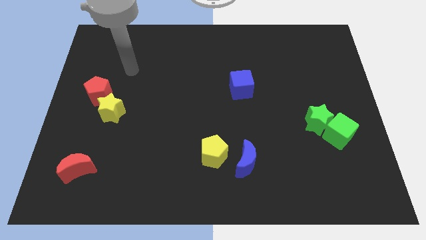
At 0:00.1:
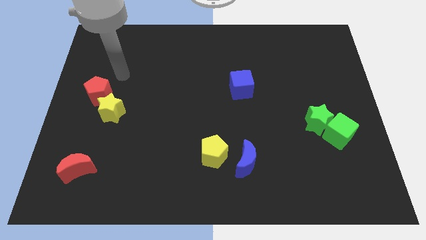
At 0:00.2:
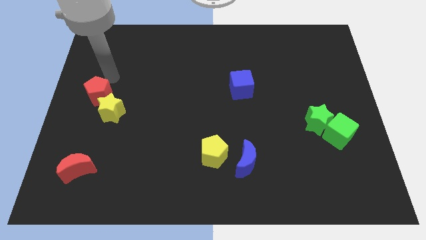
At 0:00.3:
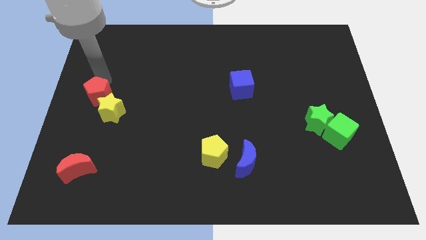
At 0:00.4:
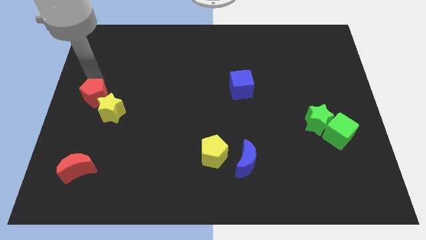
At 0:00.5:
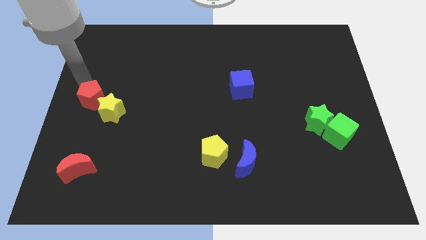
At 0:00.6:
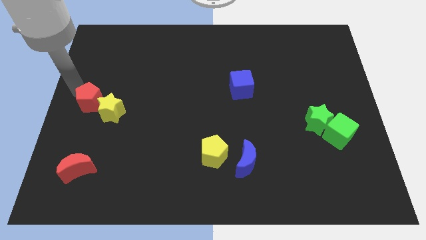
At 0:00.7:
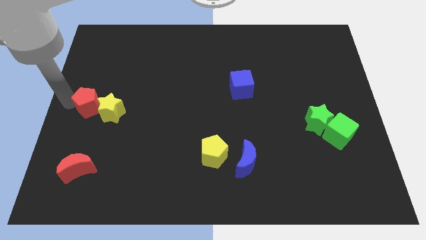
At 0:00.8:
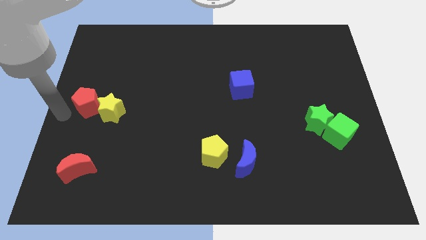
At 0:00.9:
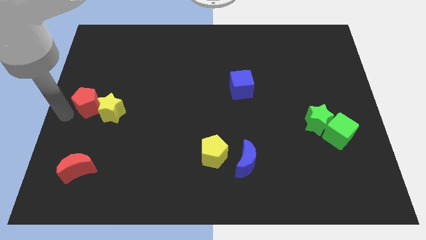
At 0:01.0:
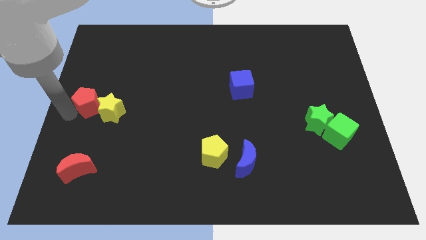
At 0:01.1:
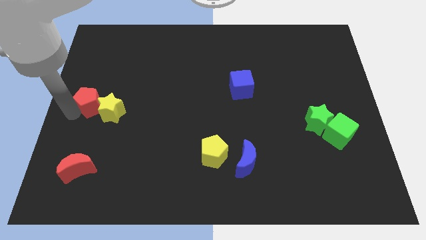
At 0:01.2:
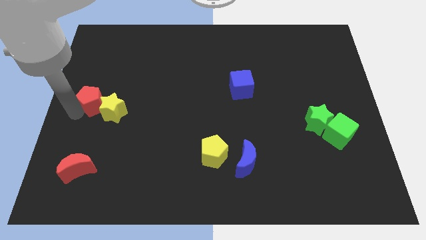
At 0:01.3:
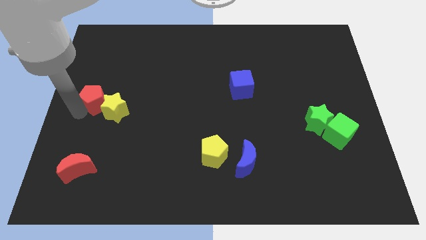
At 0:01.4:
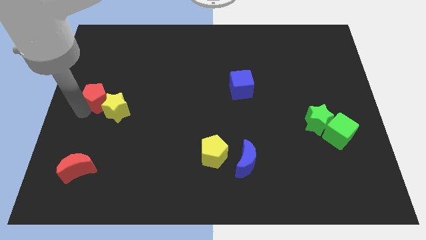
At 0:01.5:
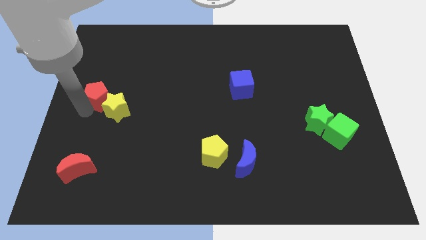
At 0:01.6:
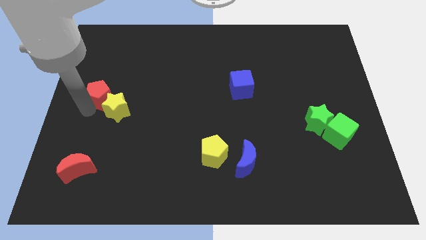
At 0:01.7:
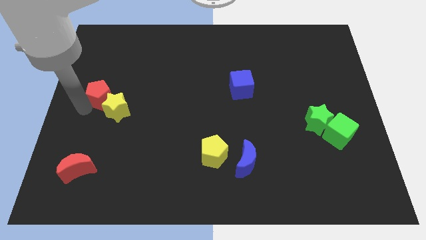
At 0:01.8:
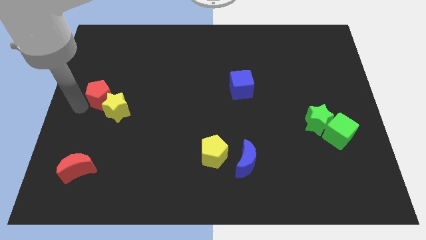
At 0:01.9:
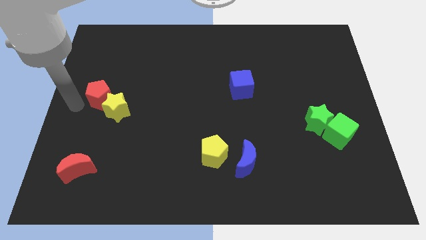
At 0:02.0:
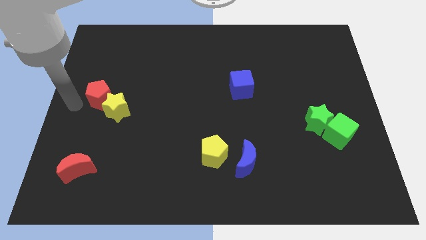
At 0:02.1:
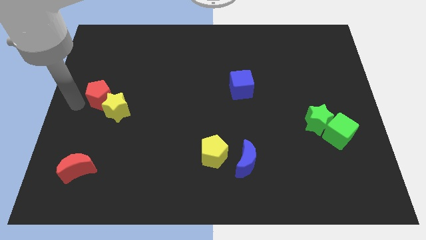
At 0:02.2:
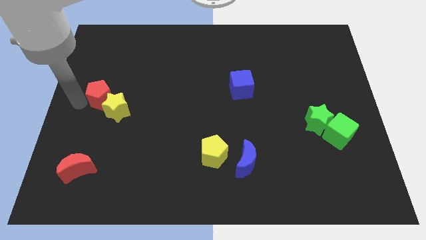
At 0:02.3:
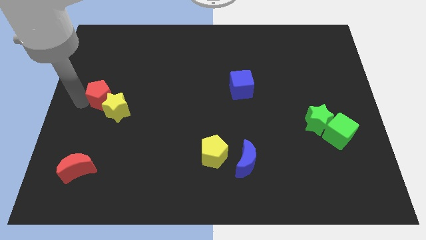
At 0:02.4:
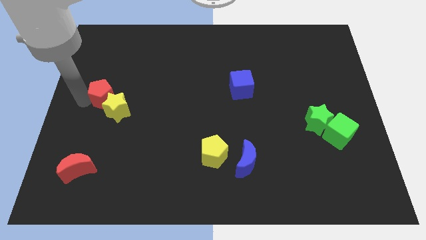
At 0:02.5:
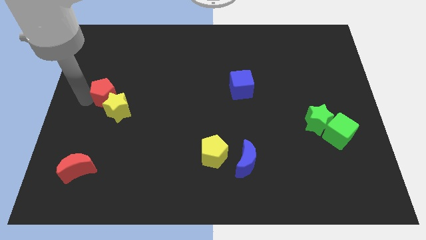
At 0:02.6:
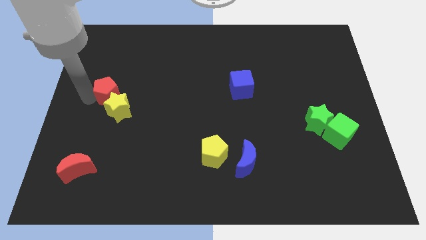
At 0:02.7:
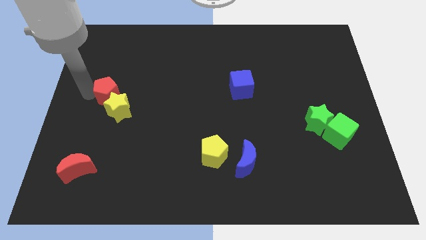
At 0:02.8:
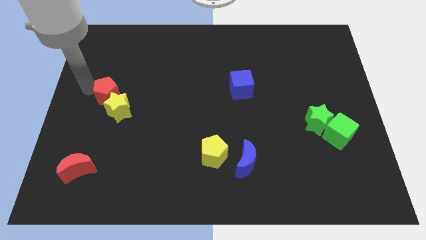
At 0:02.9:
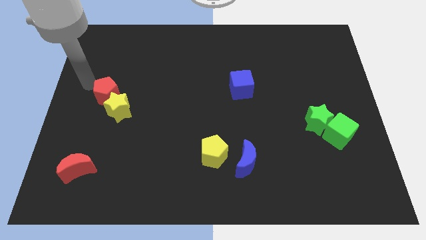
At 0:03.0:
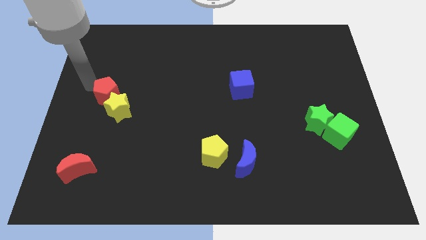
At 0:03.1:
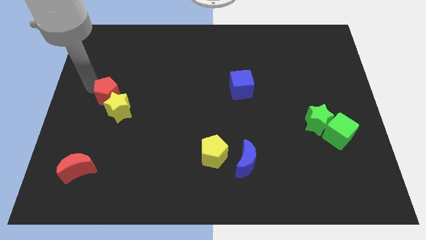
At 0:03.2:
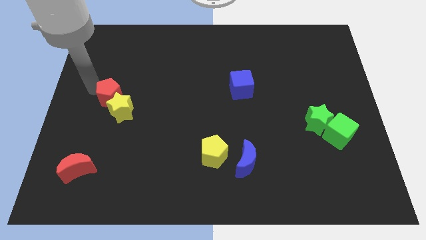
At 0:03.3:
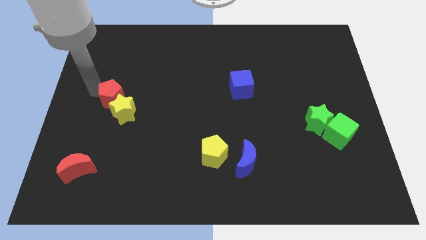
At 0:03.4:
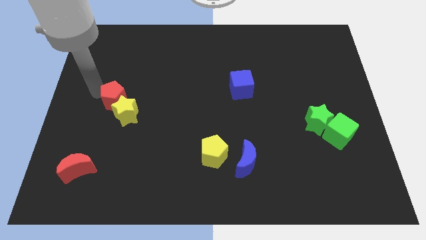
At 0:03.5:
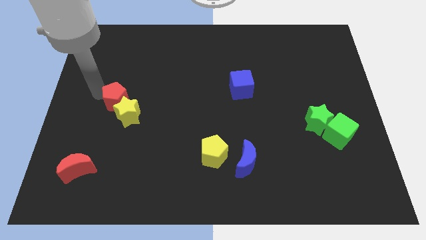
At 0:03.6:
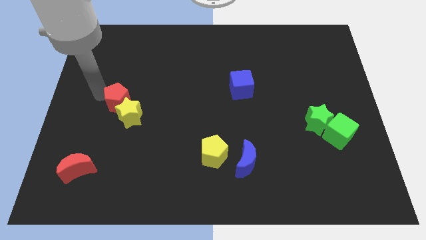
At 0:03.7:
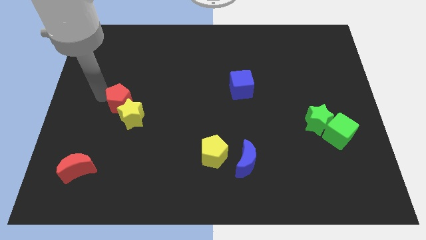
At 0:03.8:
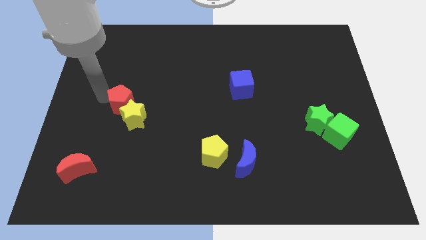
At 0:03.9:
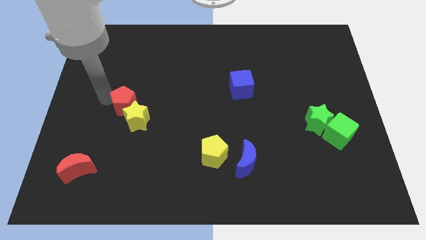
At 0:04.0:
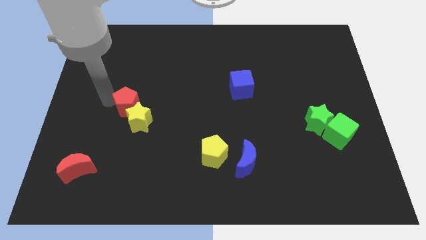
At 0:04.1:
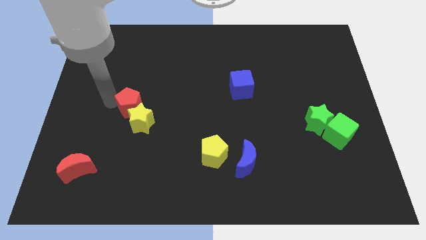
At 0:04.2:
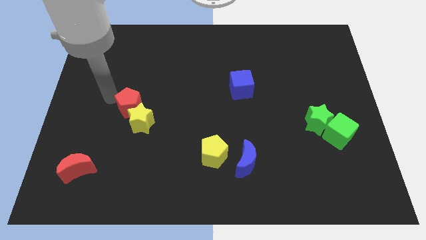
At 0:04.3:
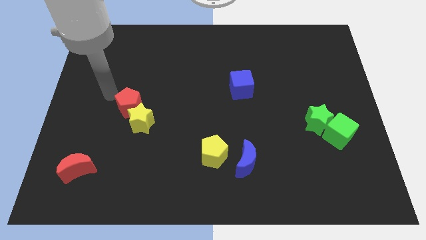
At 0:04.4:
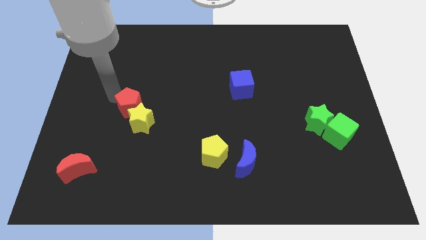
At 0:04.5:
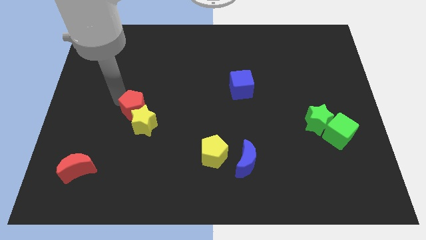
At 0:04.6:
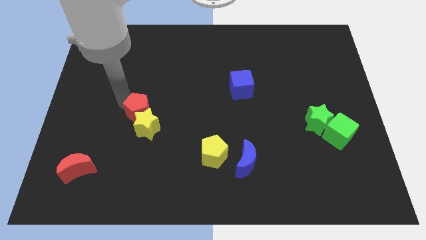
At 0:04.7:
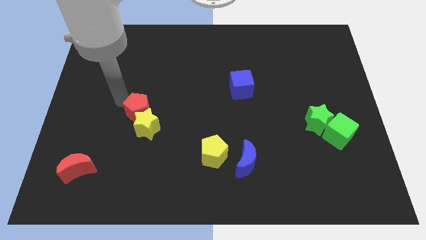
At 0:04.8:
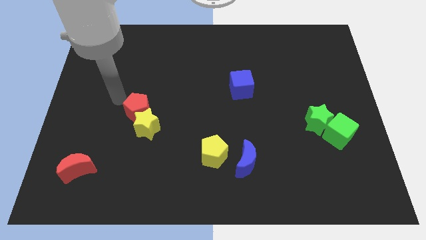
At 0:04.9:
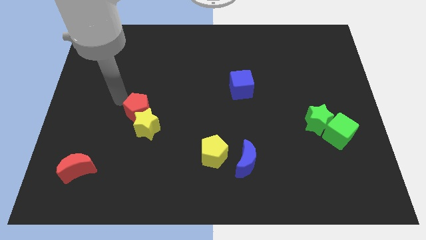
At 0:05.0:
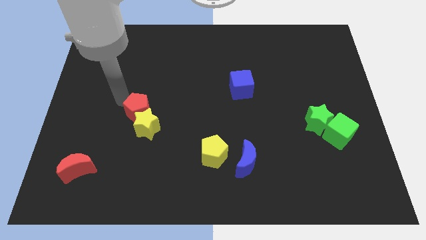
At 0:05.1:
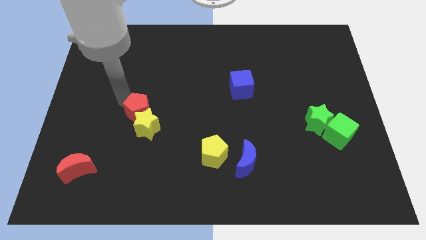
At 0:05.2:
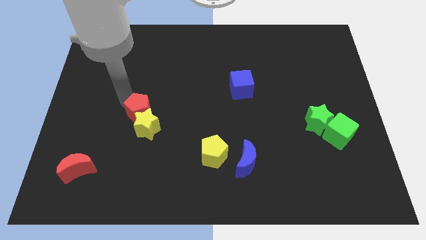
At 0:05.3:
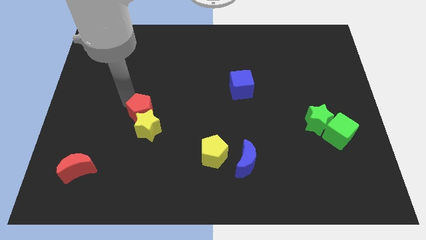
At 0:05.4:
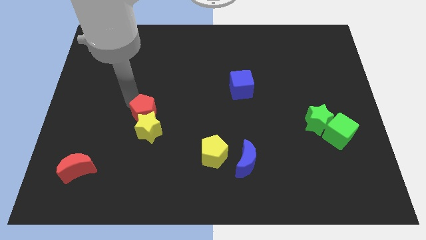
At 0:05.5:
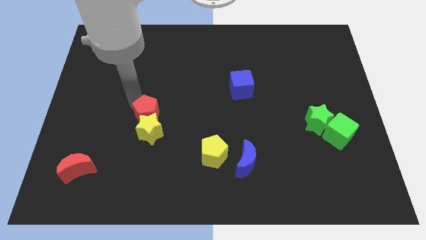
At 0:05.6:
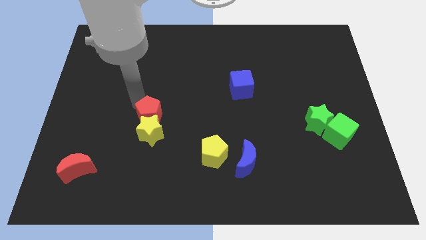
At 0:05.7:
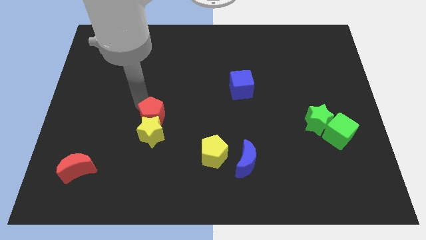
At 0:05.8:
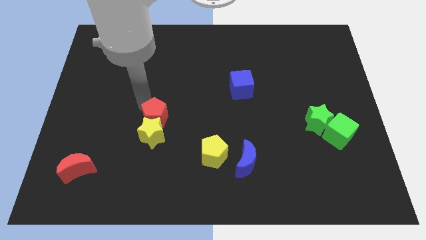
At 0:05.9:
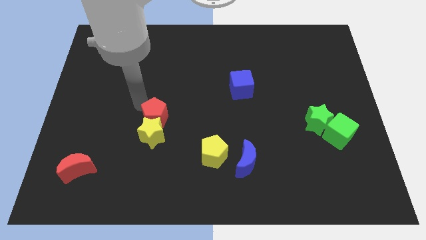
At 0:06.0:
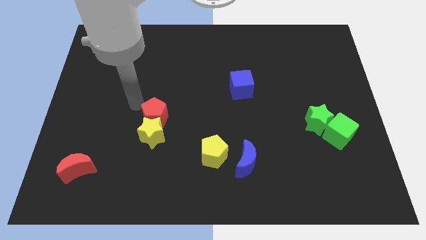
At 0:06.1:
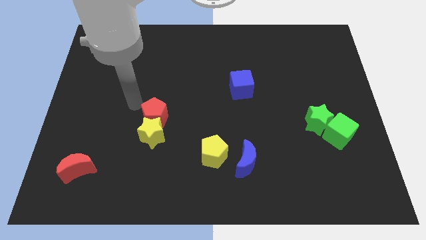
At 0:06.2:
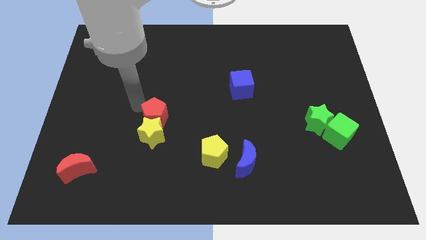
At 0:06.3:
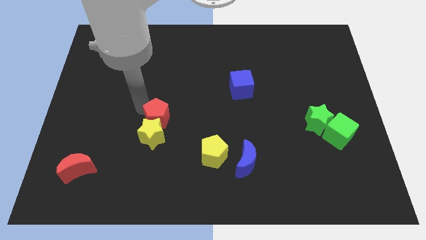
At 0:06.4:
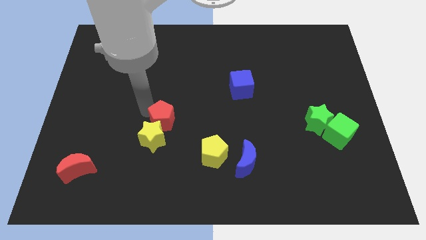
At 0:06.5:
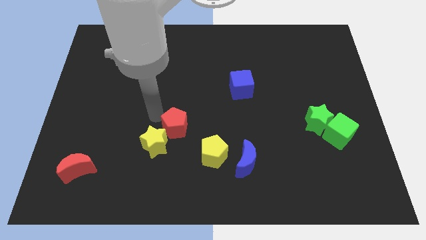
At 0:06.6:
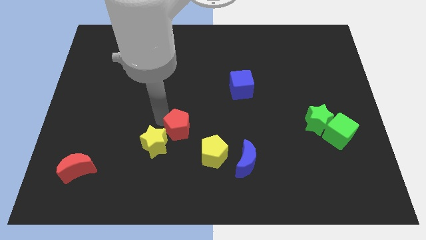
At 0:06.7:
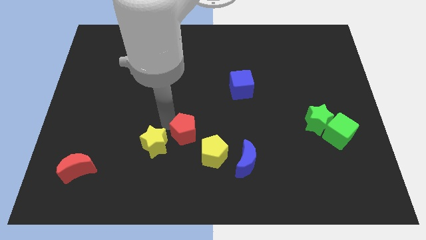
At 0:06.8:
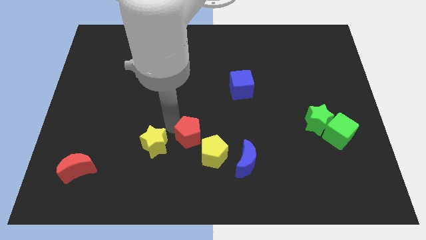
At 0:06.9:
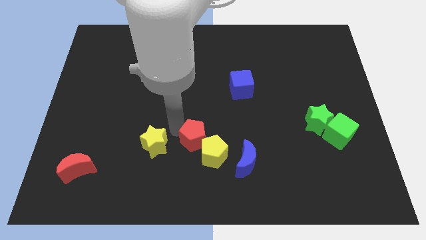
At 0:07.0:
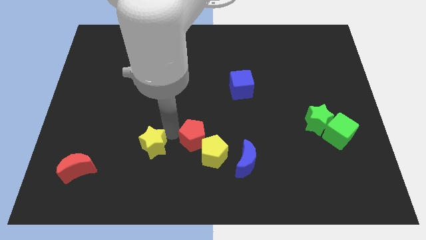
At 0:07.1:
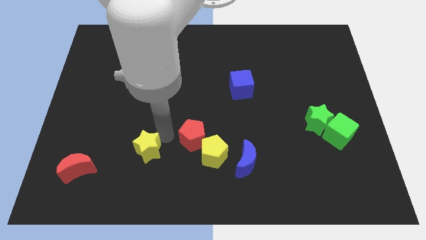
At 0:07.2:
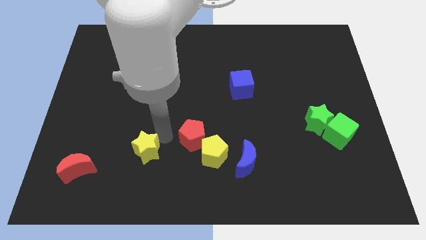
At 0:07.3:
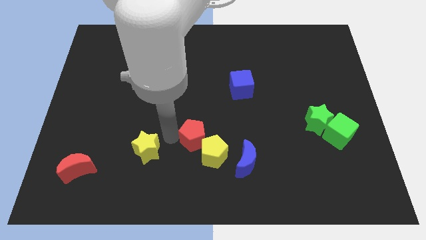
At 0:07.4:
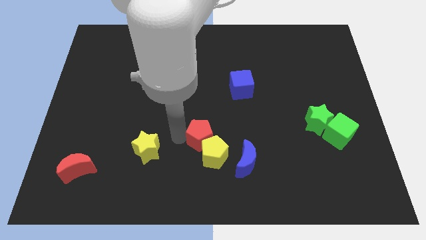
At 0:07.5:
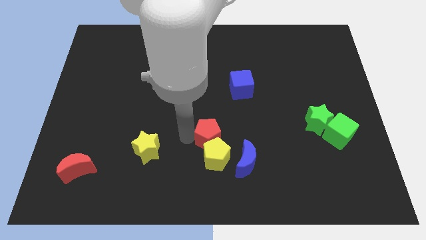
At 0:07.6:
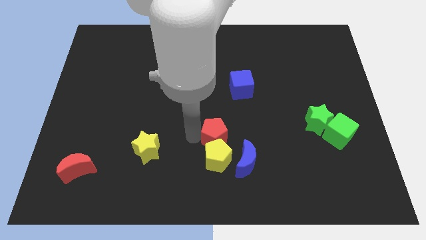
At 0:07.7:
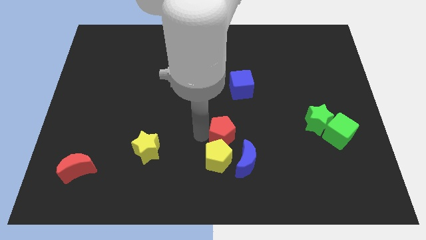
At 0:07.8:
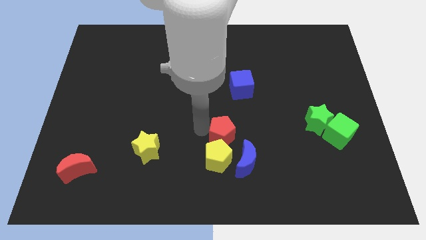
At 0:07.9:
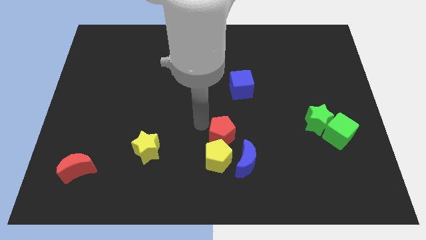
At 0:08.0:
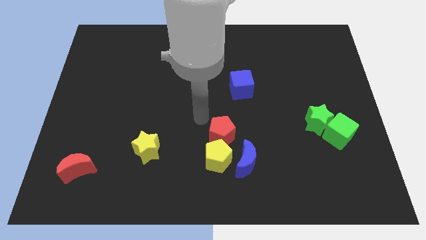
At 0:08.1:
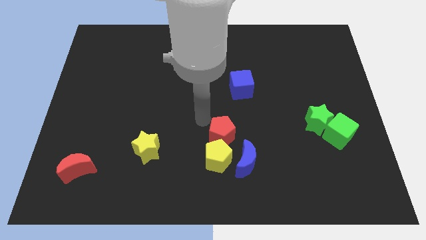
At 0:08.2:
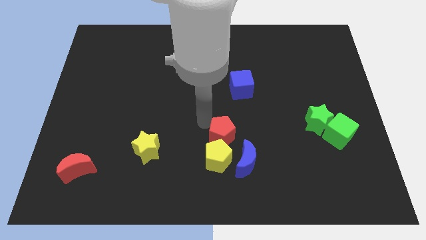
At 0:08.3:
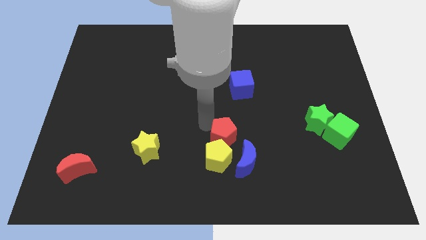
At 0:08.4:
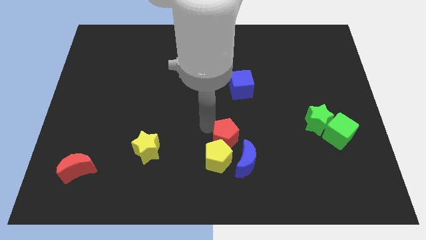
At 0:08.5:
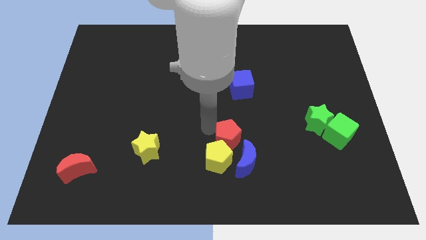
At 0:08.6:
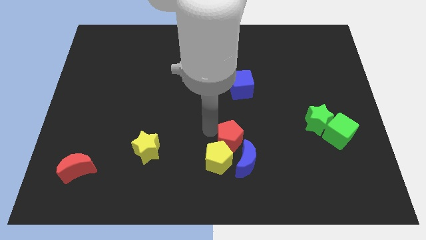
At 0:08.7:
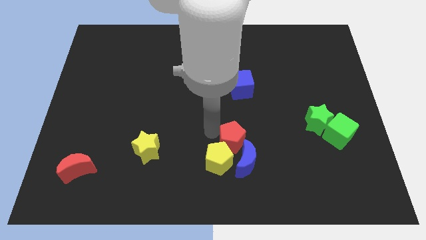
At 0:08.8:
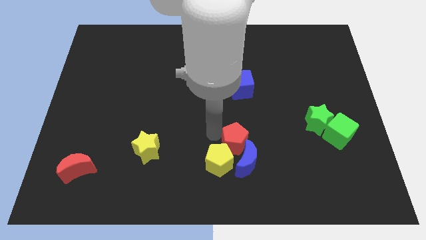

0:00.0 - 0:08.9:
push the red pentagon to the blue moon
